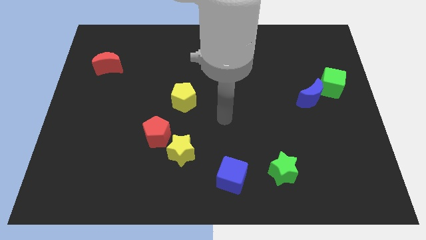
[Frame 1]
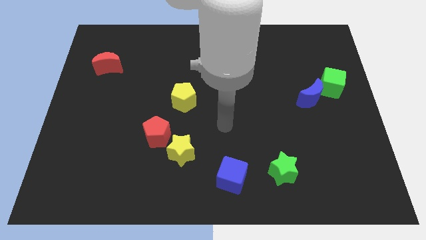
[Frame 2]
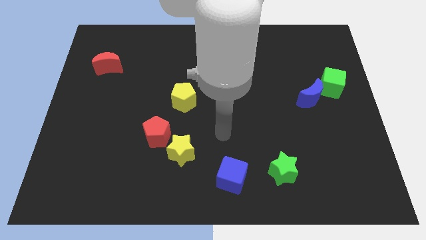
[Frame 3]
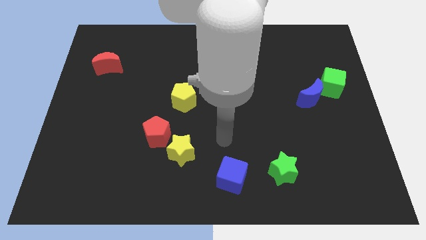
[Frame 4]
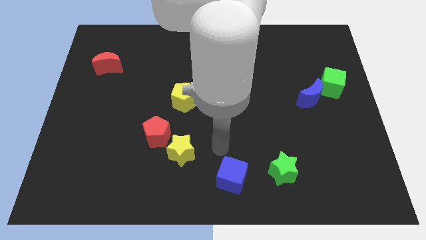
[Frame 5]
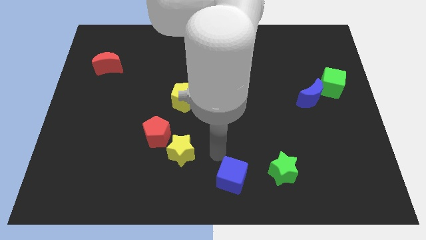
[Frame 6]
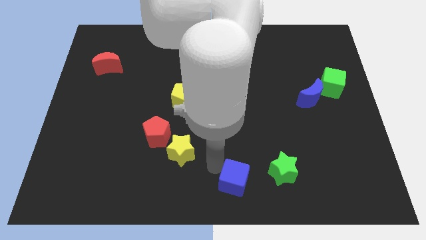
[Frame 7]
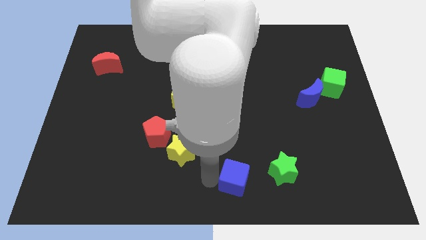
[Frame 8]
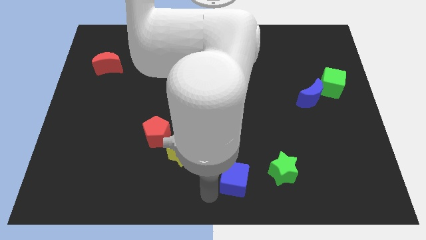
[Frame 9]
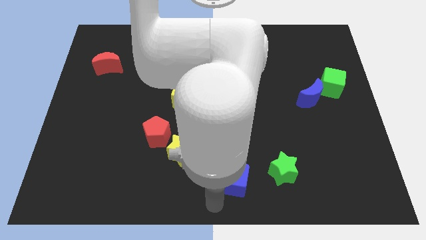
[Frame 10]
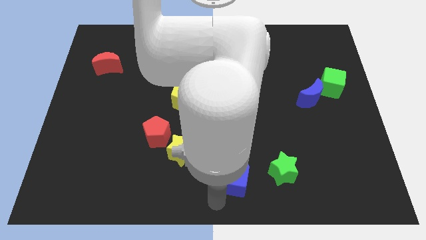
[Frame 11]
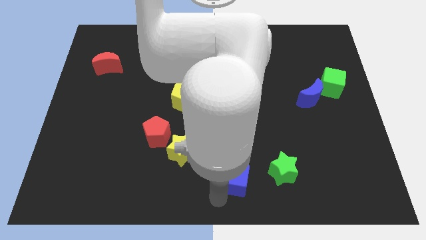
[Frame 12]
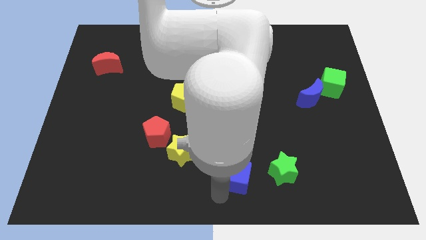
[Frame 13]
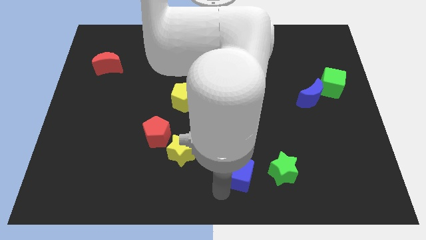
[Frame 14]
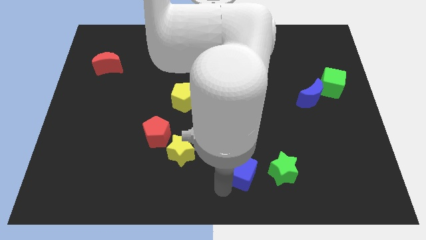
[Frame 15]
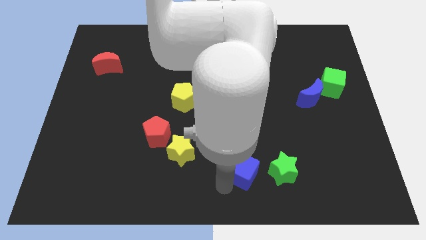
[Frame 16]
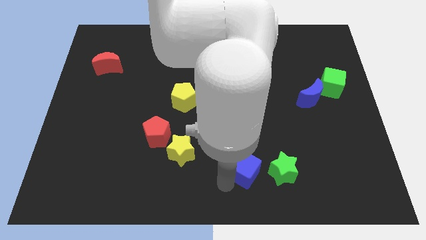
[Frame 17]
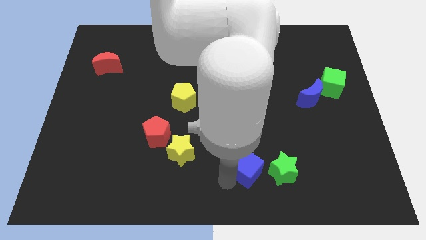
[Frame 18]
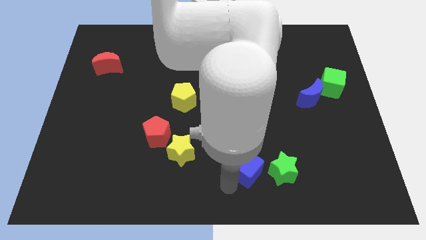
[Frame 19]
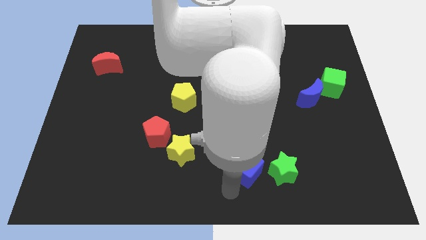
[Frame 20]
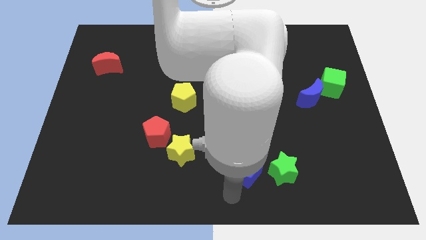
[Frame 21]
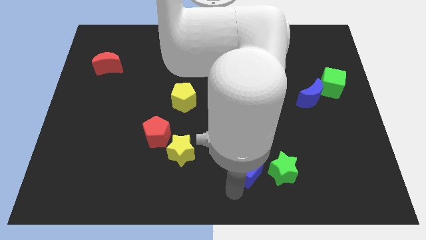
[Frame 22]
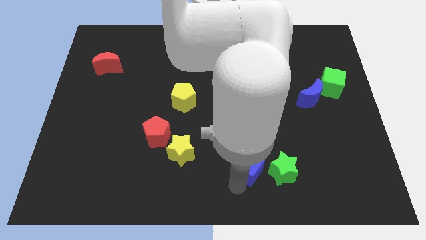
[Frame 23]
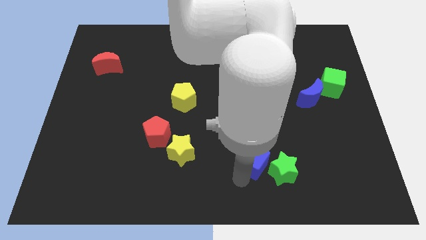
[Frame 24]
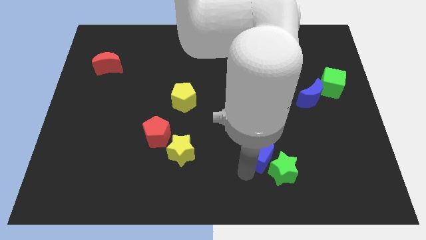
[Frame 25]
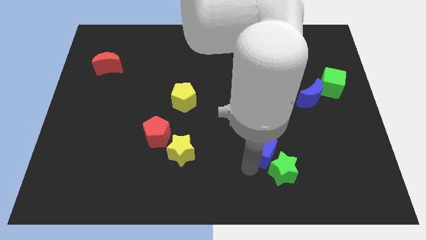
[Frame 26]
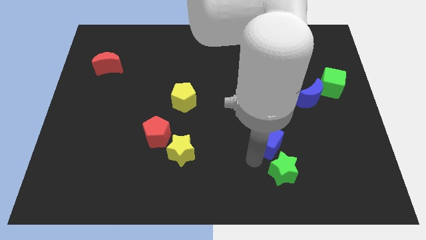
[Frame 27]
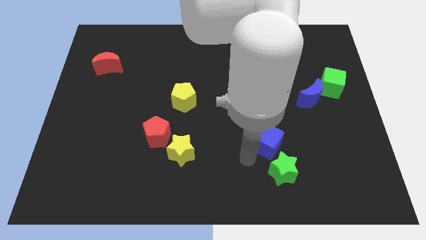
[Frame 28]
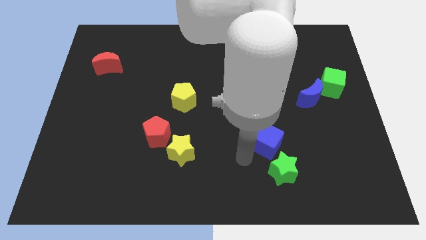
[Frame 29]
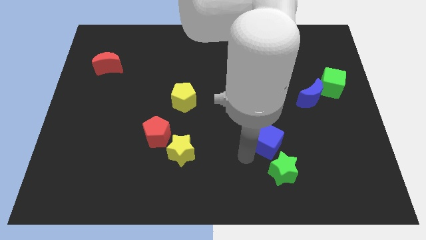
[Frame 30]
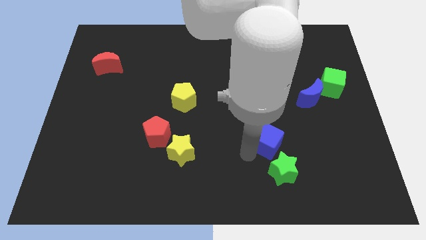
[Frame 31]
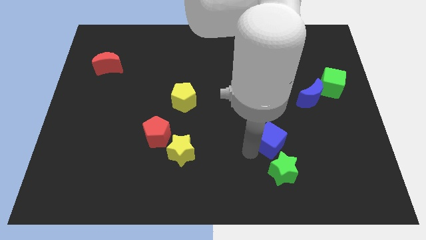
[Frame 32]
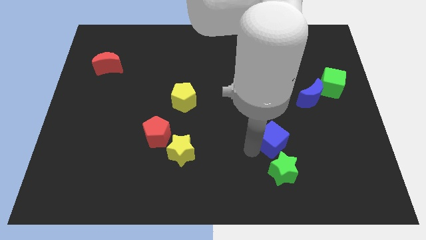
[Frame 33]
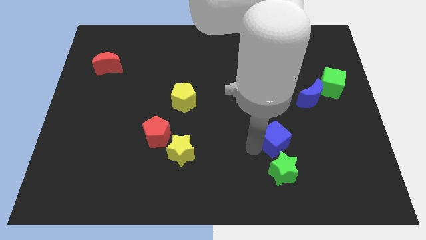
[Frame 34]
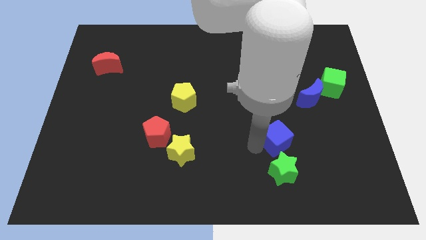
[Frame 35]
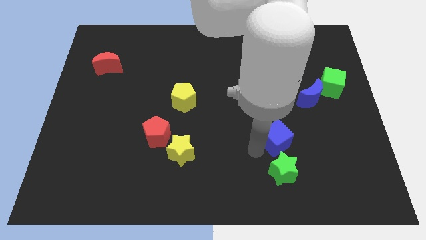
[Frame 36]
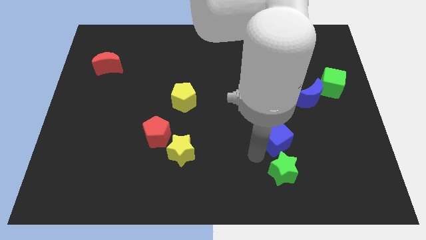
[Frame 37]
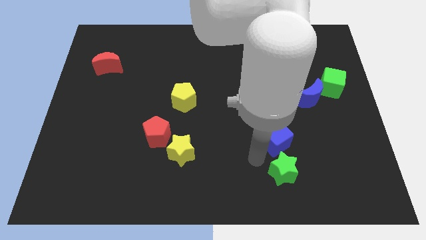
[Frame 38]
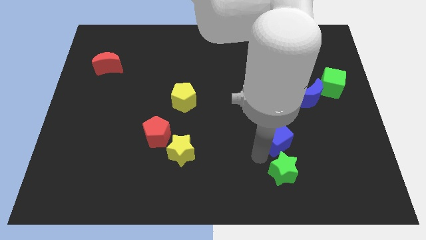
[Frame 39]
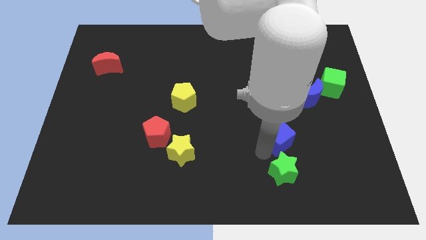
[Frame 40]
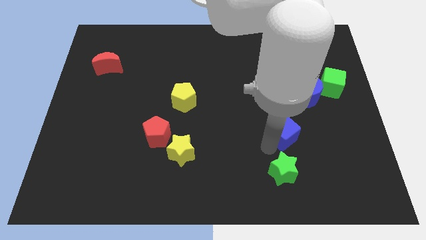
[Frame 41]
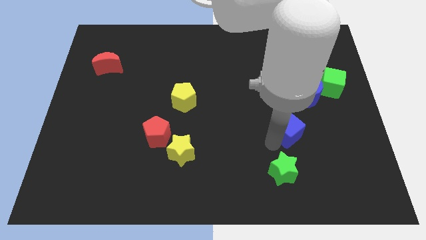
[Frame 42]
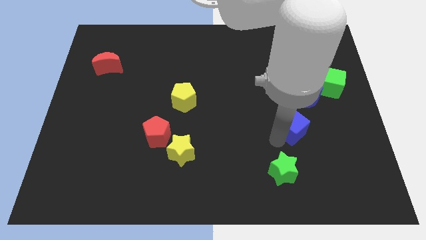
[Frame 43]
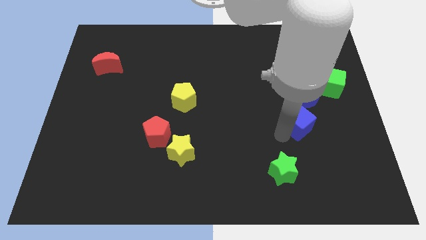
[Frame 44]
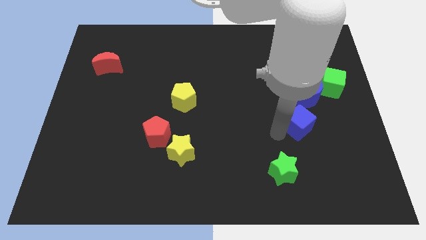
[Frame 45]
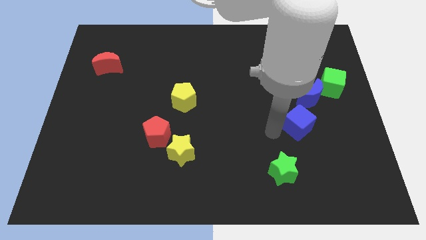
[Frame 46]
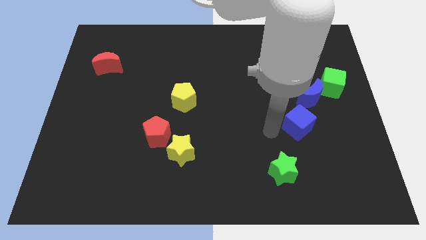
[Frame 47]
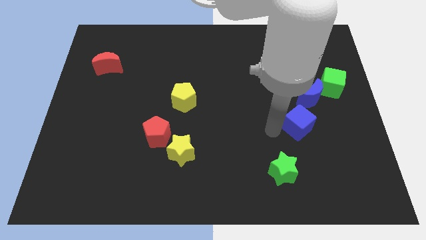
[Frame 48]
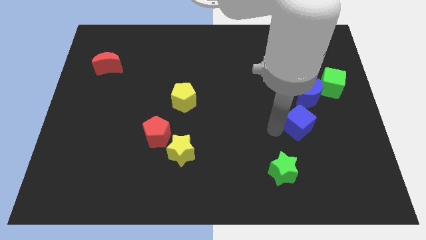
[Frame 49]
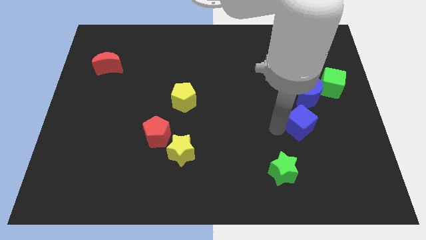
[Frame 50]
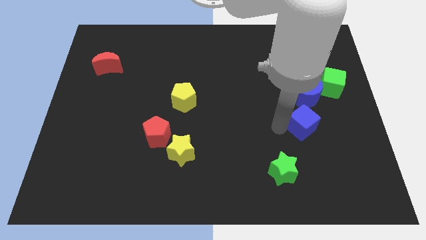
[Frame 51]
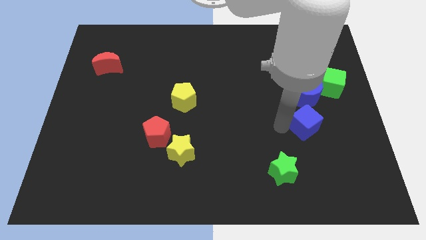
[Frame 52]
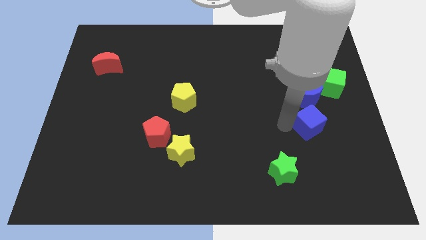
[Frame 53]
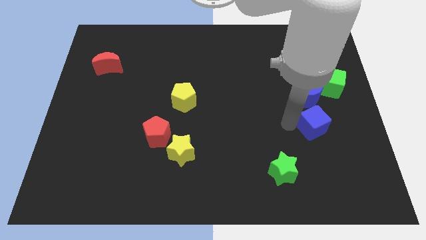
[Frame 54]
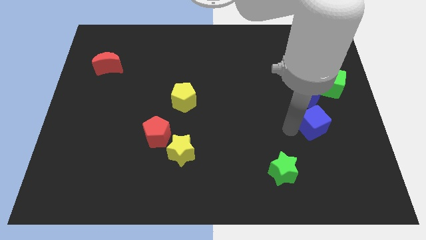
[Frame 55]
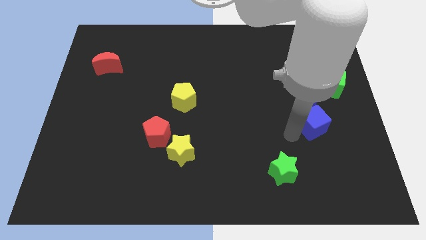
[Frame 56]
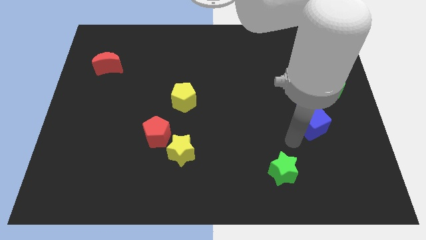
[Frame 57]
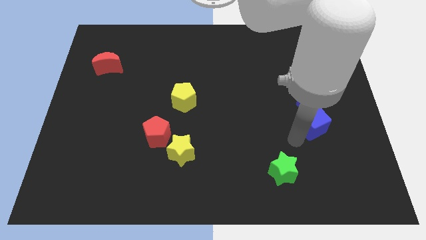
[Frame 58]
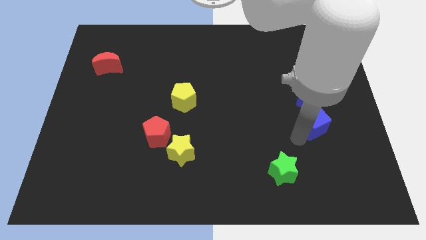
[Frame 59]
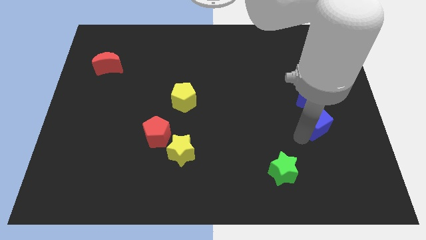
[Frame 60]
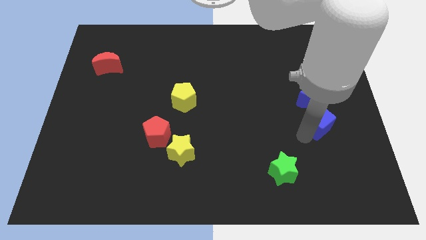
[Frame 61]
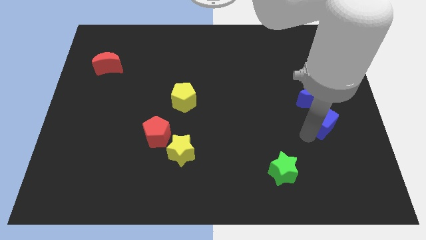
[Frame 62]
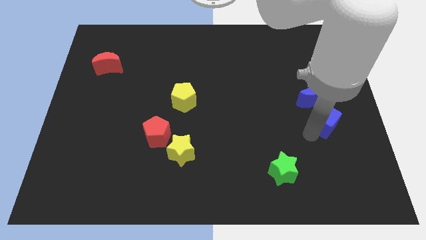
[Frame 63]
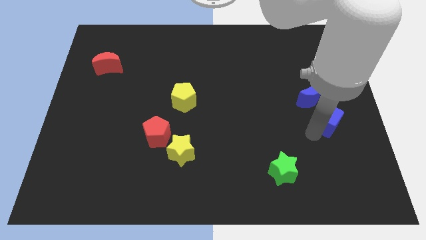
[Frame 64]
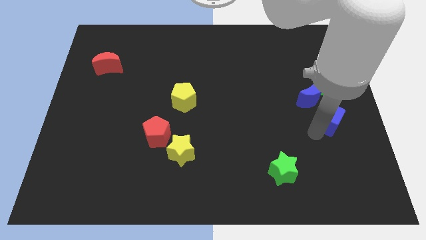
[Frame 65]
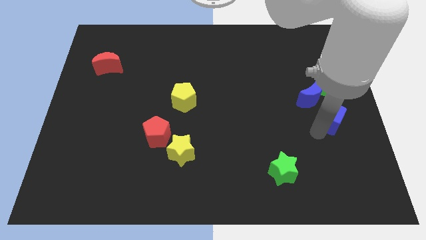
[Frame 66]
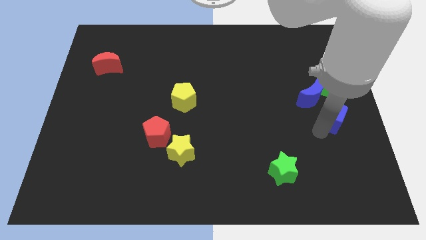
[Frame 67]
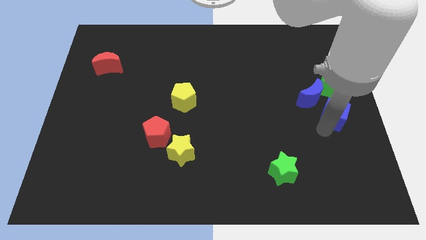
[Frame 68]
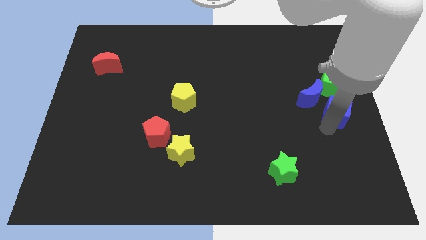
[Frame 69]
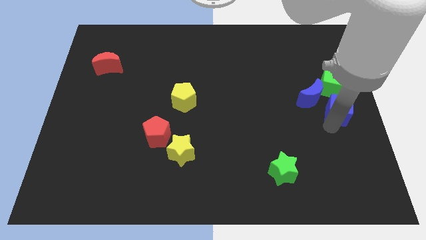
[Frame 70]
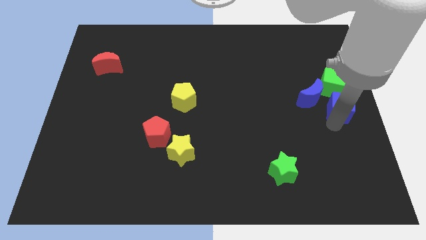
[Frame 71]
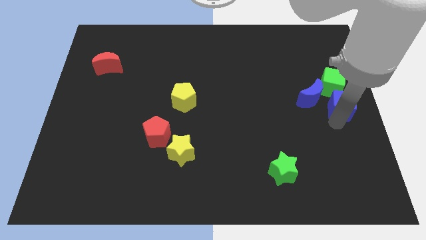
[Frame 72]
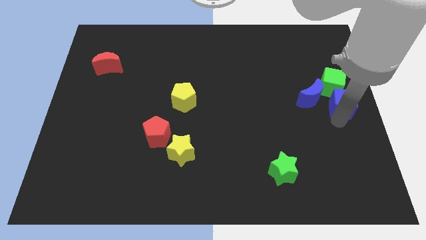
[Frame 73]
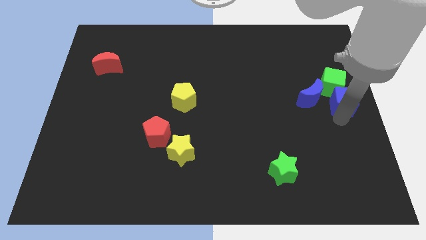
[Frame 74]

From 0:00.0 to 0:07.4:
move the blue cube towards the green cube
